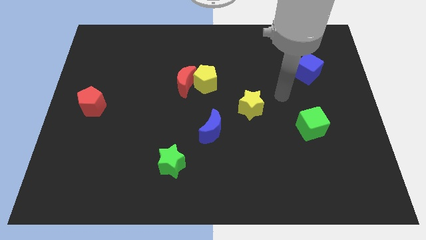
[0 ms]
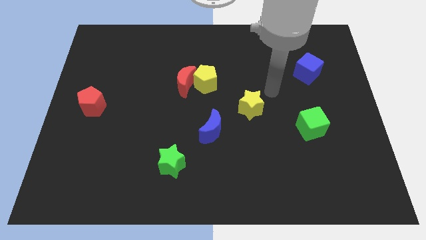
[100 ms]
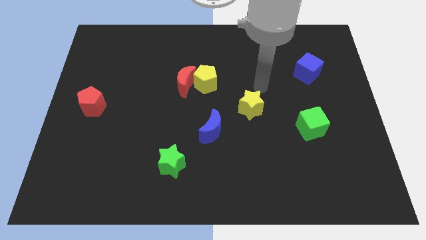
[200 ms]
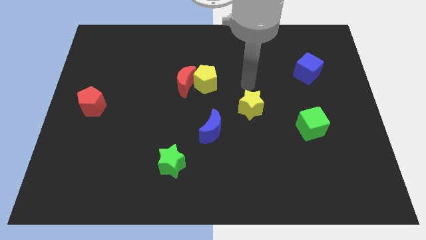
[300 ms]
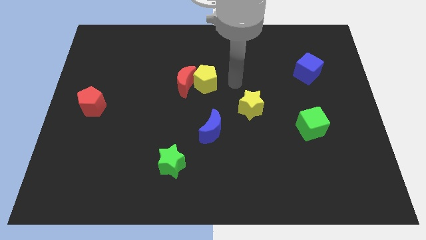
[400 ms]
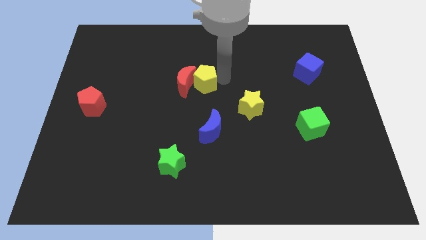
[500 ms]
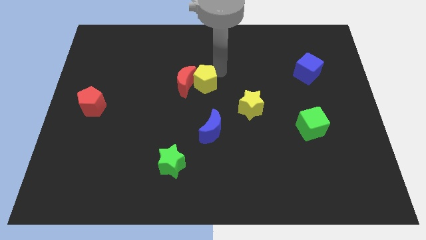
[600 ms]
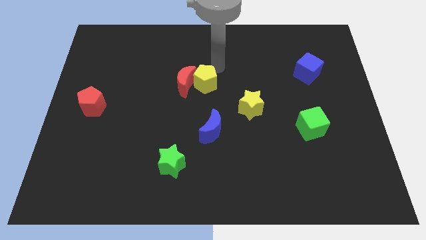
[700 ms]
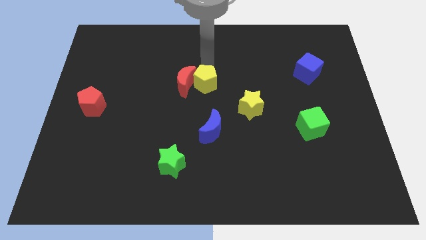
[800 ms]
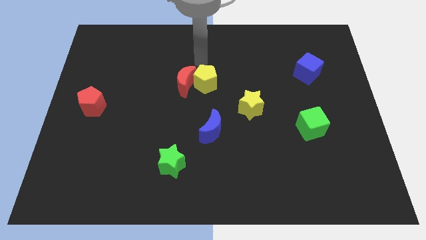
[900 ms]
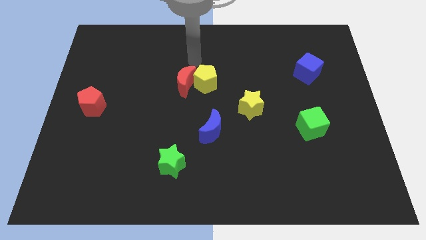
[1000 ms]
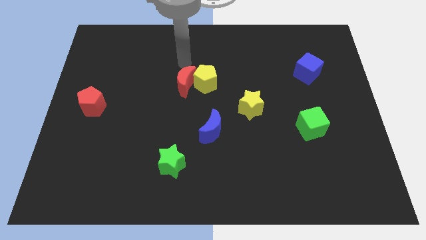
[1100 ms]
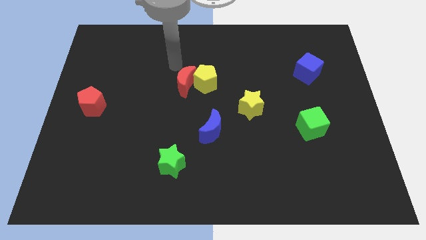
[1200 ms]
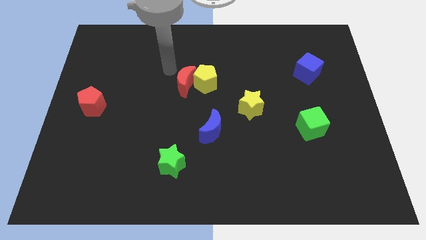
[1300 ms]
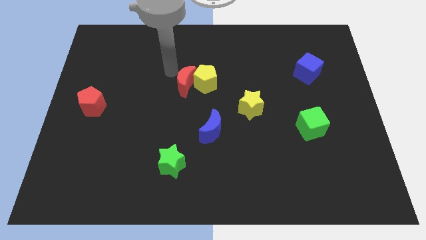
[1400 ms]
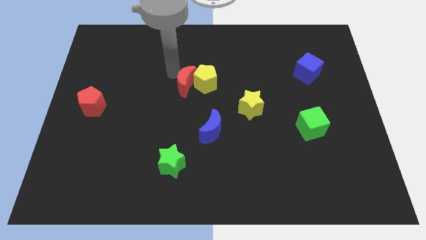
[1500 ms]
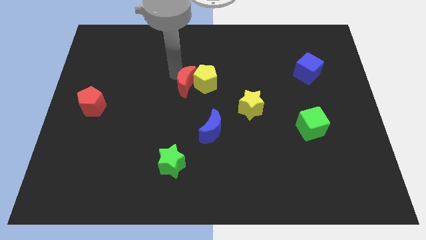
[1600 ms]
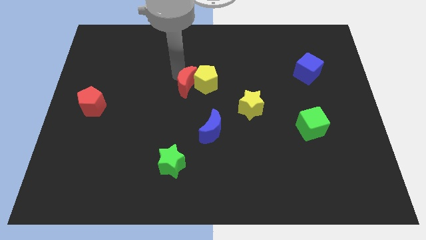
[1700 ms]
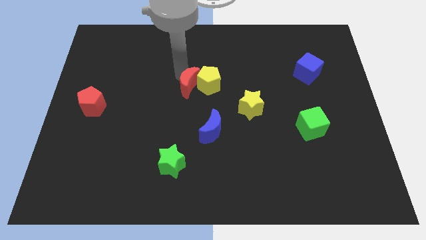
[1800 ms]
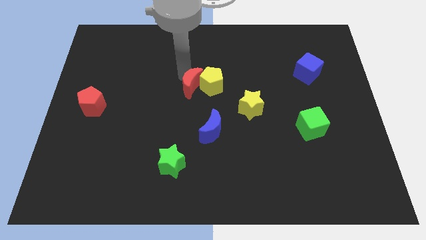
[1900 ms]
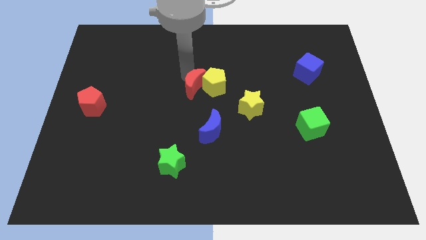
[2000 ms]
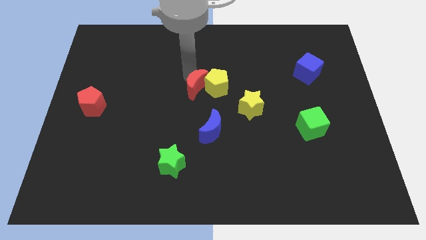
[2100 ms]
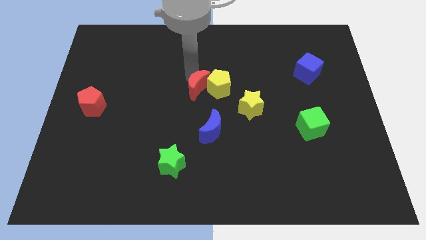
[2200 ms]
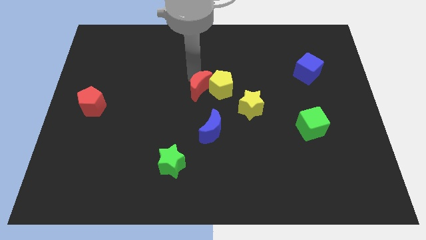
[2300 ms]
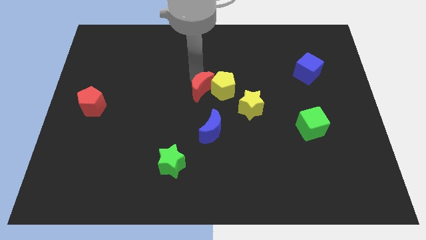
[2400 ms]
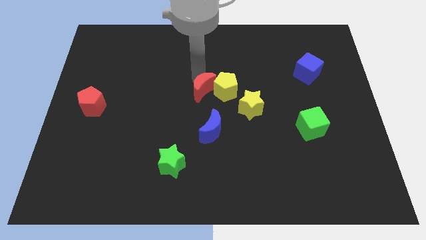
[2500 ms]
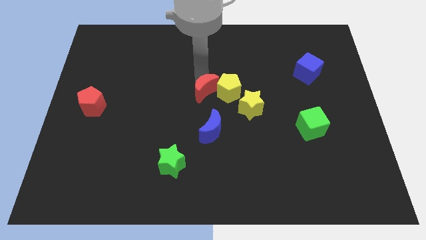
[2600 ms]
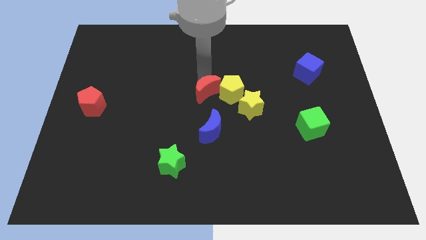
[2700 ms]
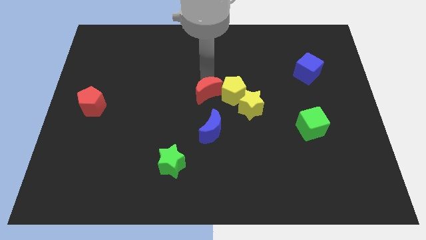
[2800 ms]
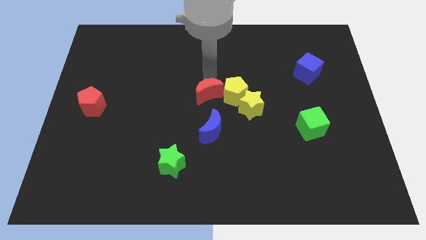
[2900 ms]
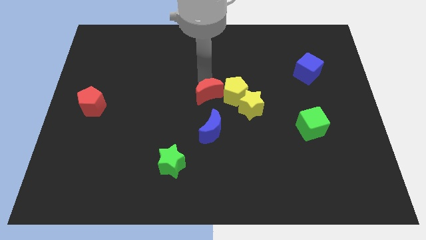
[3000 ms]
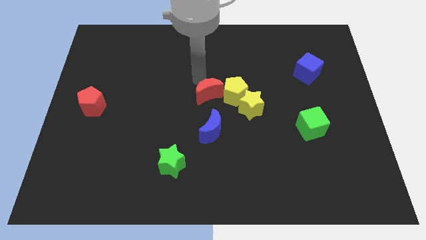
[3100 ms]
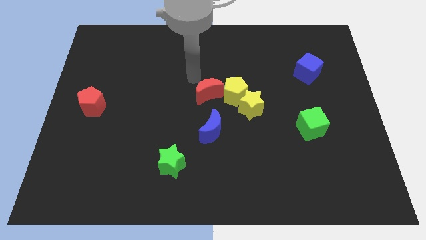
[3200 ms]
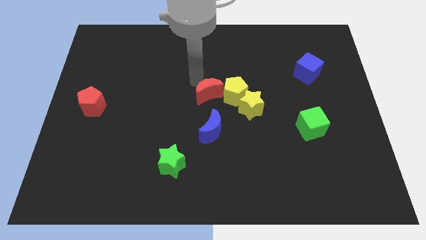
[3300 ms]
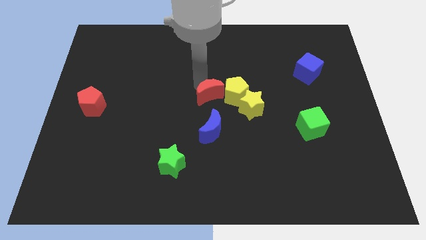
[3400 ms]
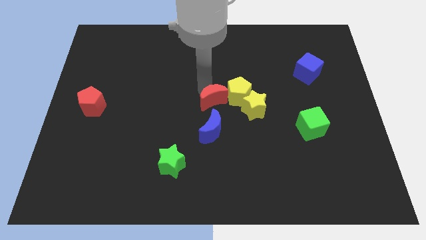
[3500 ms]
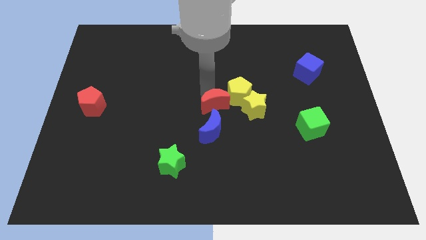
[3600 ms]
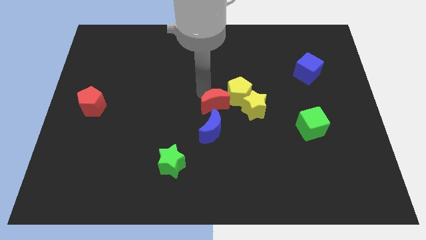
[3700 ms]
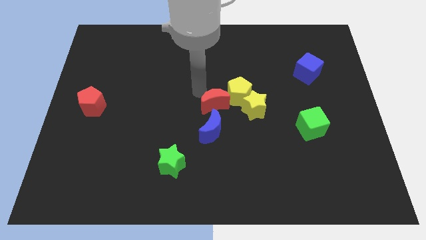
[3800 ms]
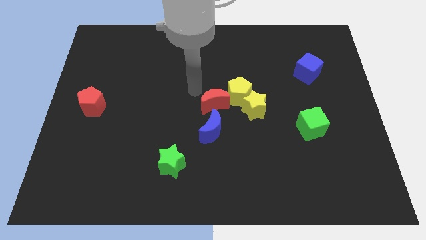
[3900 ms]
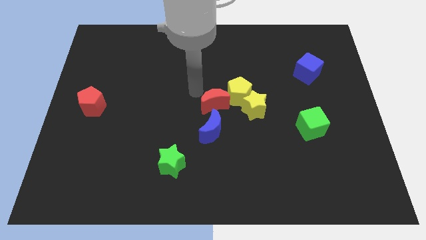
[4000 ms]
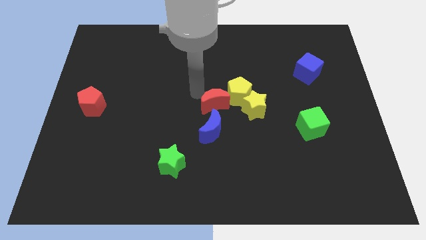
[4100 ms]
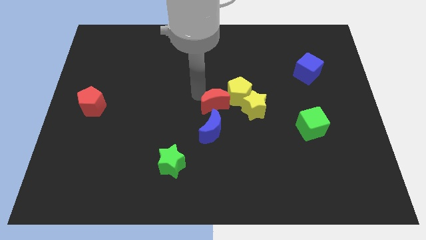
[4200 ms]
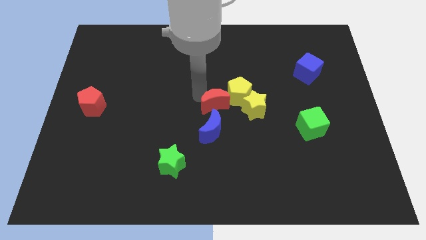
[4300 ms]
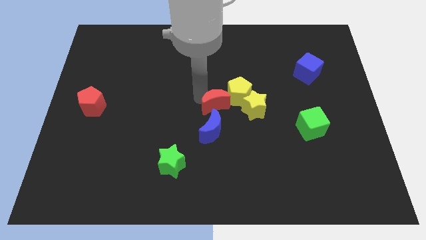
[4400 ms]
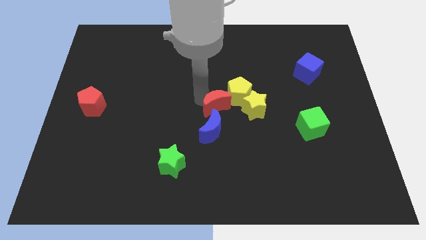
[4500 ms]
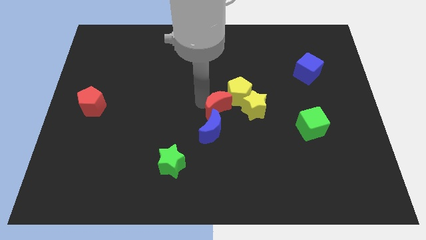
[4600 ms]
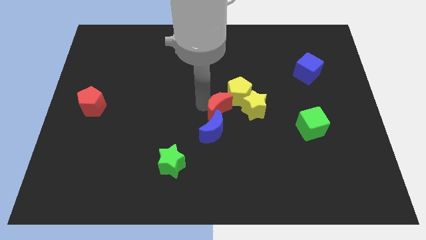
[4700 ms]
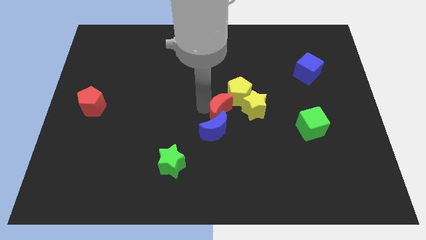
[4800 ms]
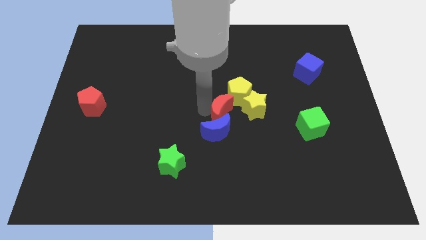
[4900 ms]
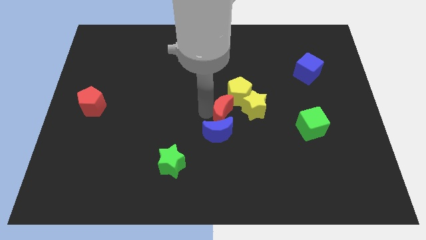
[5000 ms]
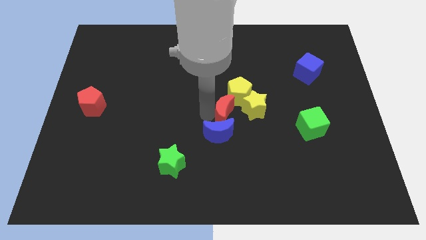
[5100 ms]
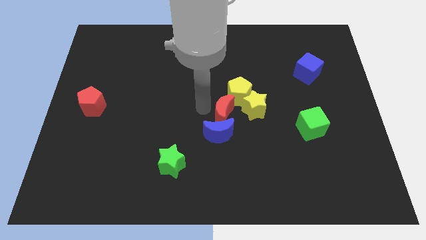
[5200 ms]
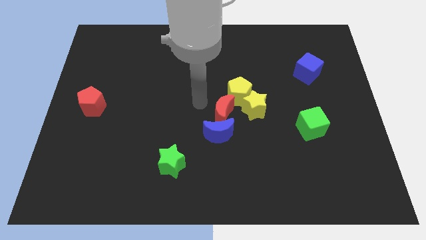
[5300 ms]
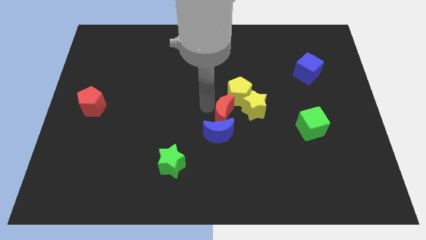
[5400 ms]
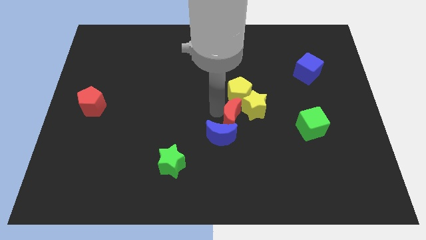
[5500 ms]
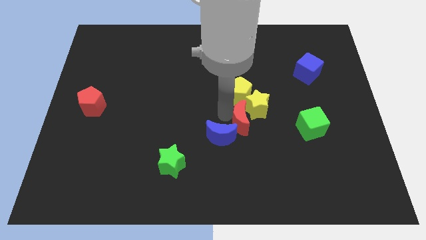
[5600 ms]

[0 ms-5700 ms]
move the red moon right of the blue moon

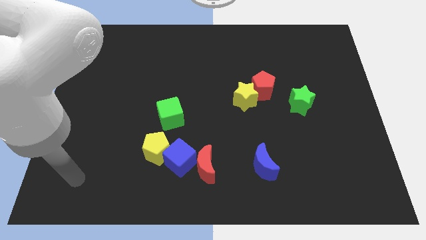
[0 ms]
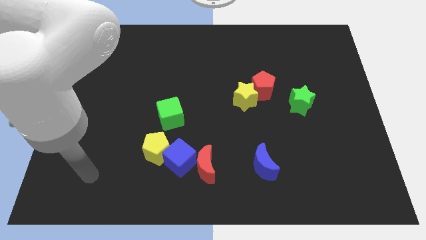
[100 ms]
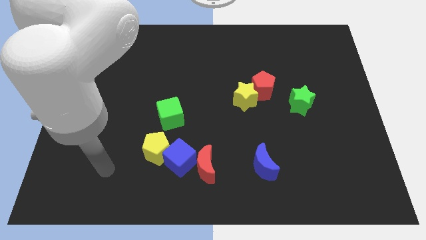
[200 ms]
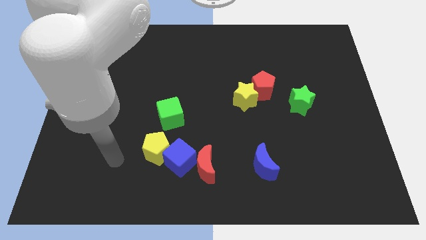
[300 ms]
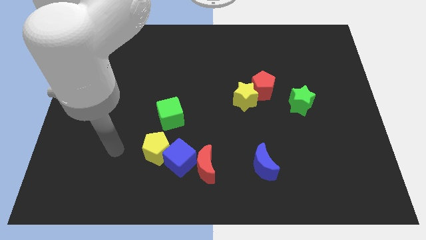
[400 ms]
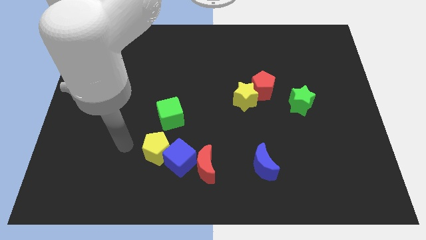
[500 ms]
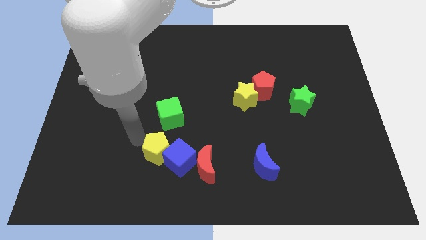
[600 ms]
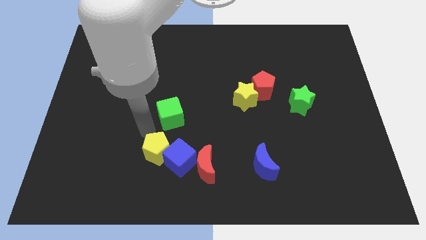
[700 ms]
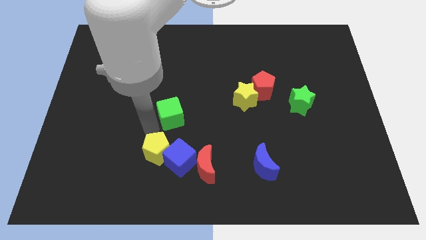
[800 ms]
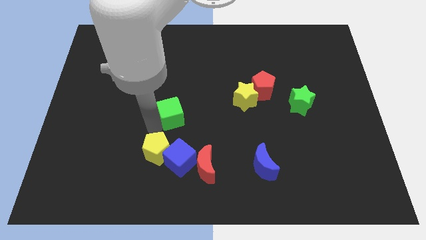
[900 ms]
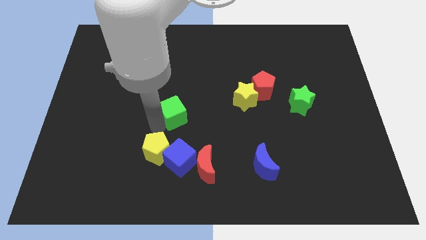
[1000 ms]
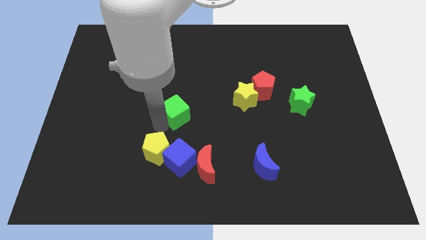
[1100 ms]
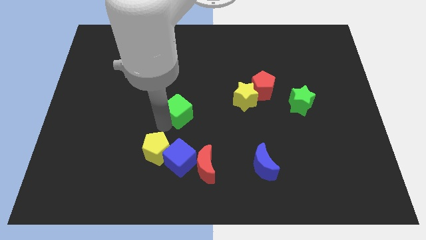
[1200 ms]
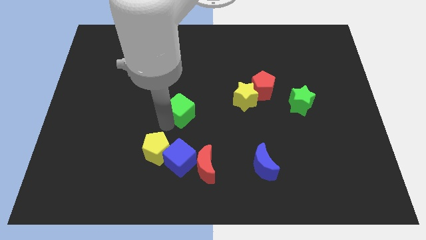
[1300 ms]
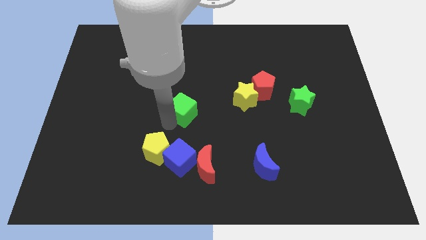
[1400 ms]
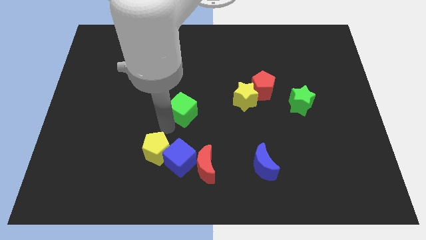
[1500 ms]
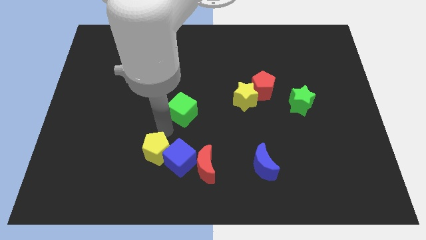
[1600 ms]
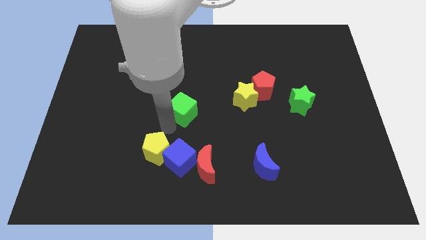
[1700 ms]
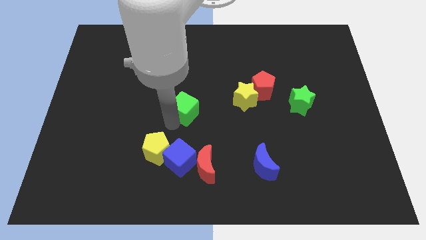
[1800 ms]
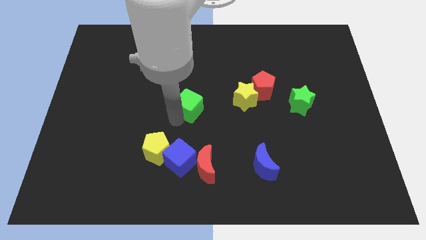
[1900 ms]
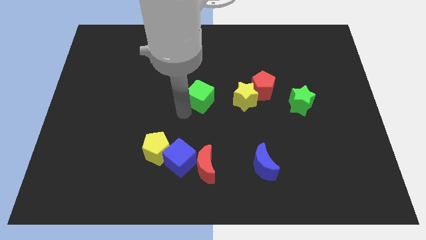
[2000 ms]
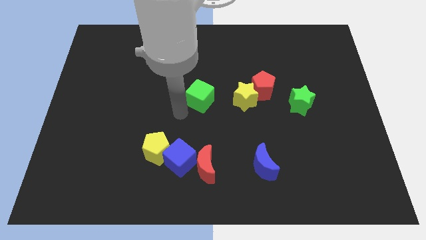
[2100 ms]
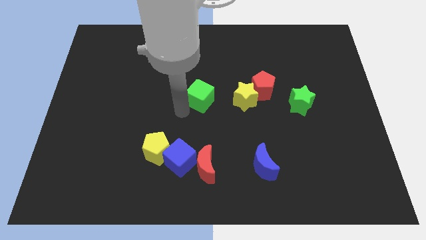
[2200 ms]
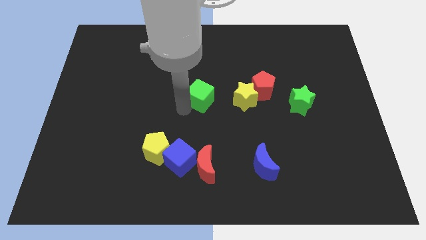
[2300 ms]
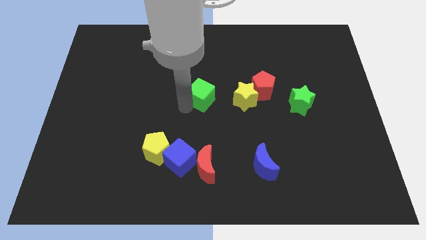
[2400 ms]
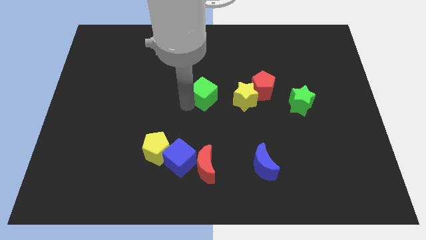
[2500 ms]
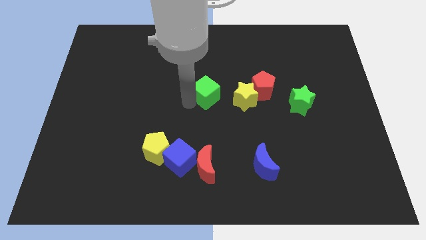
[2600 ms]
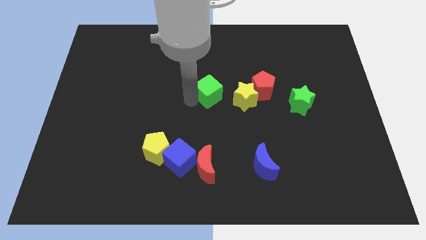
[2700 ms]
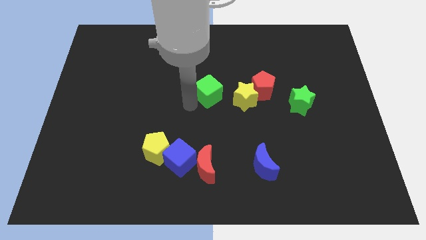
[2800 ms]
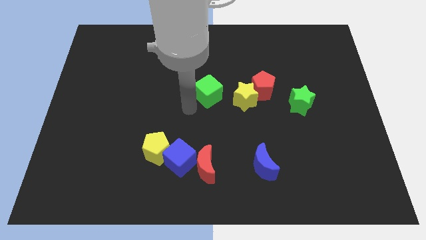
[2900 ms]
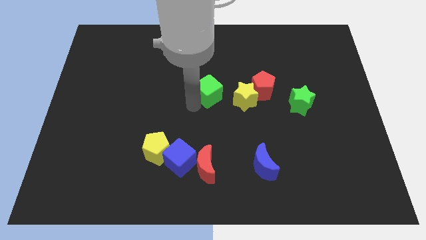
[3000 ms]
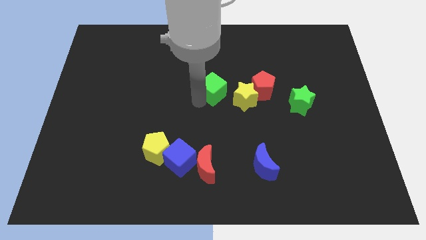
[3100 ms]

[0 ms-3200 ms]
push the green cube to the top left of the yellow star
